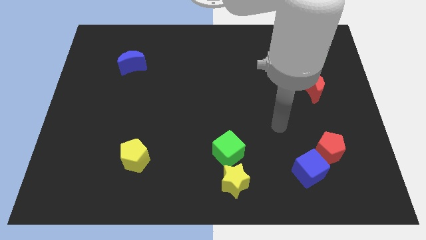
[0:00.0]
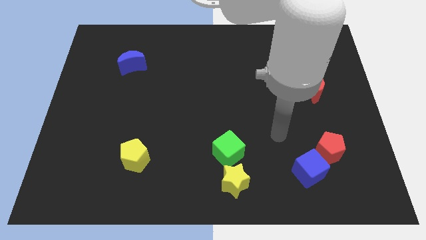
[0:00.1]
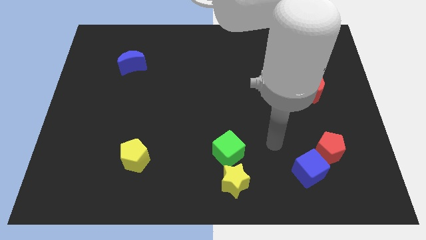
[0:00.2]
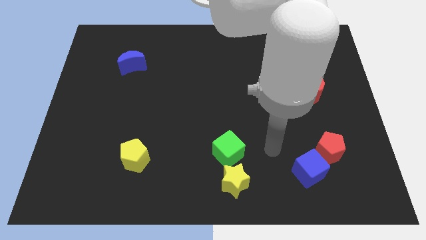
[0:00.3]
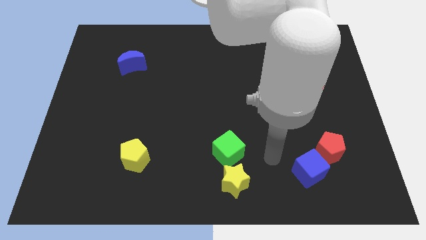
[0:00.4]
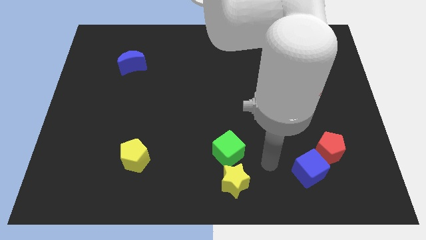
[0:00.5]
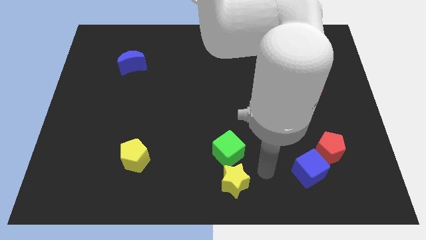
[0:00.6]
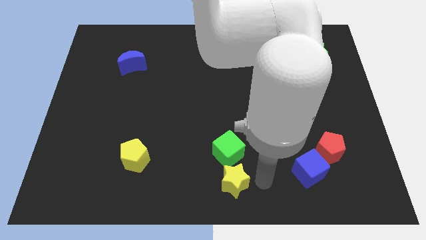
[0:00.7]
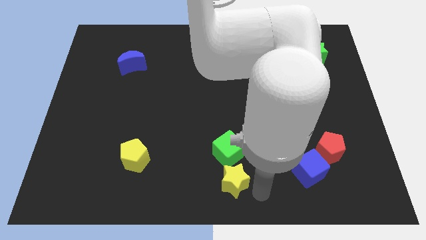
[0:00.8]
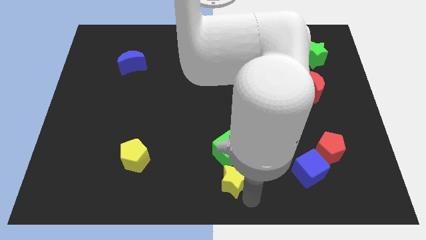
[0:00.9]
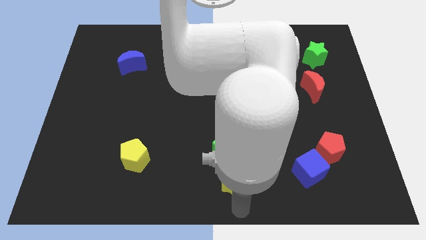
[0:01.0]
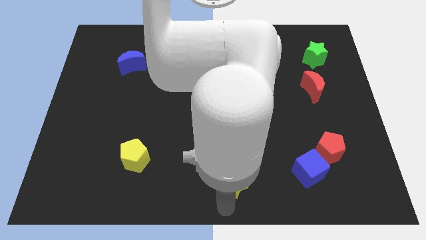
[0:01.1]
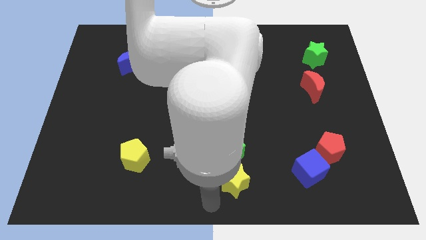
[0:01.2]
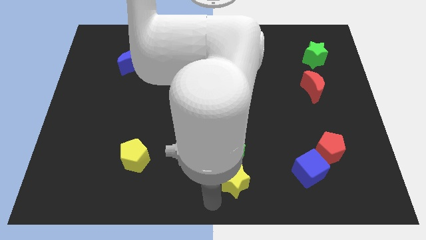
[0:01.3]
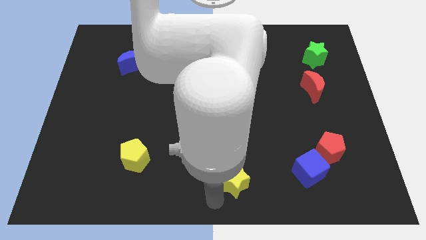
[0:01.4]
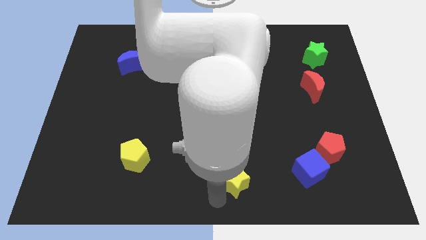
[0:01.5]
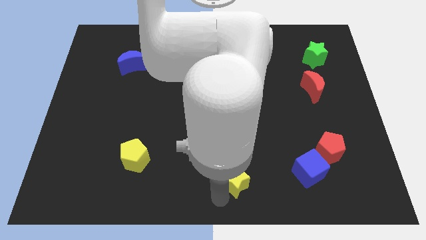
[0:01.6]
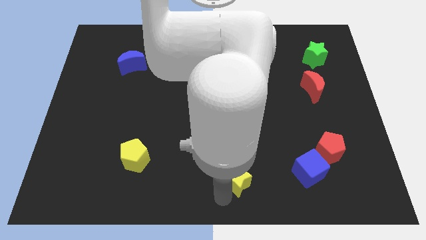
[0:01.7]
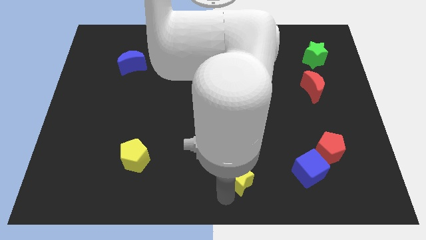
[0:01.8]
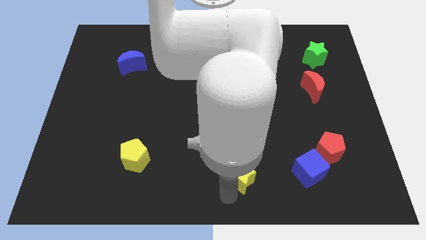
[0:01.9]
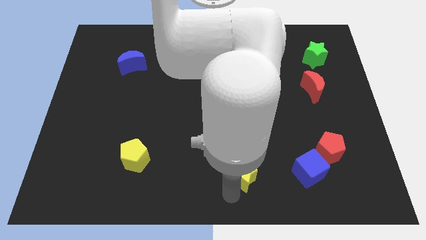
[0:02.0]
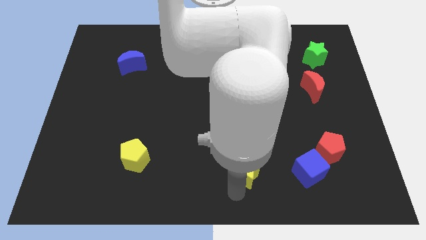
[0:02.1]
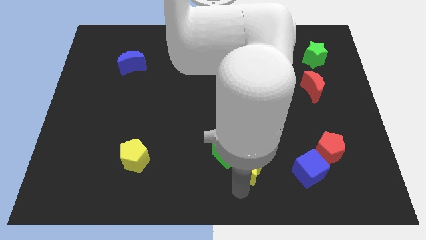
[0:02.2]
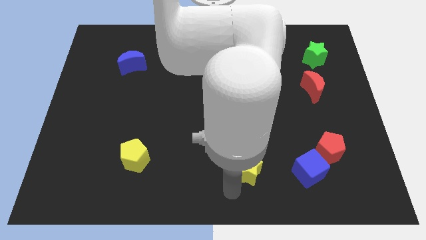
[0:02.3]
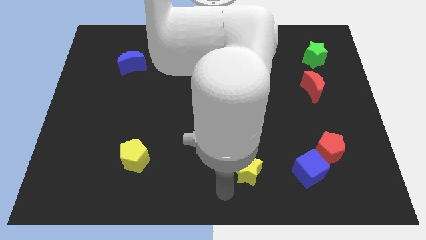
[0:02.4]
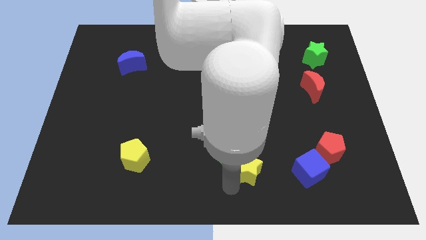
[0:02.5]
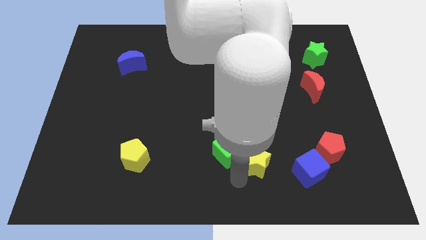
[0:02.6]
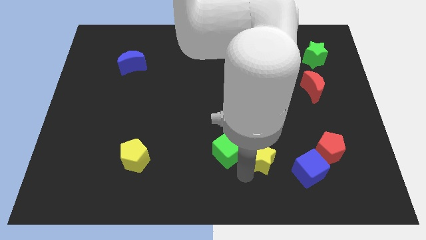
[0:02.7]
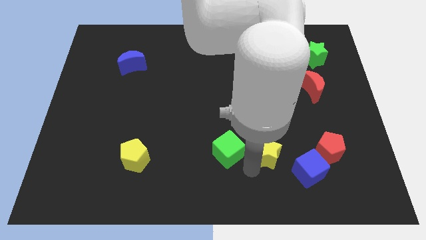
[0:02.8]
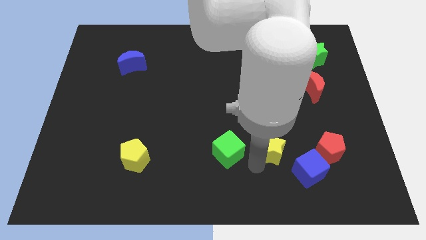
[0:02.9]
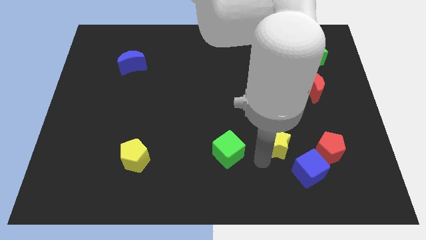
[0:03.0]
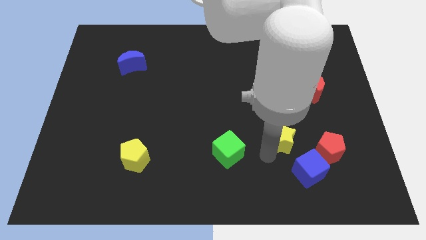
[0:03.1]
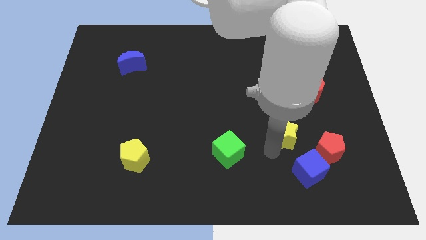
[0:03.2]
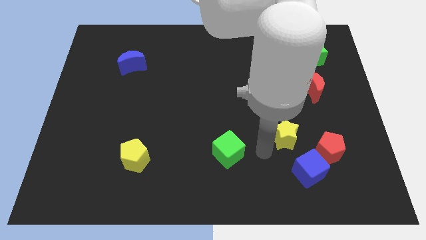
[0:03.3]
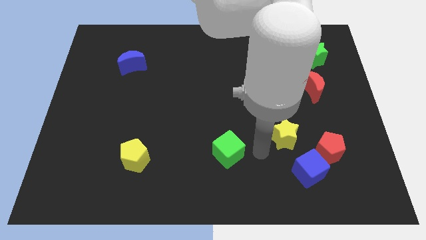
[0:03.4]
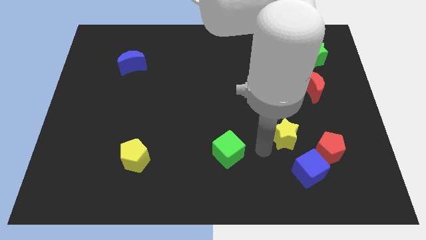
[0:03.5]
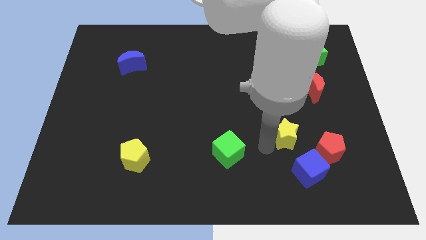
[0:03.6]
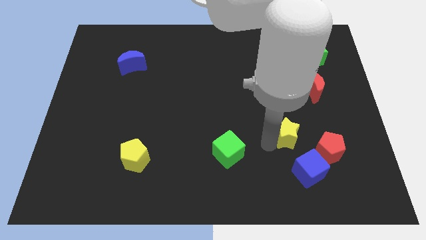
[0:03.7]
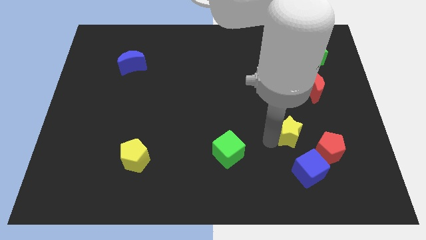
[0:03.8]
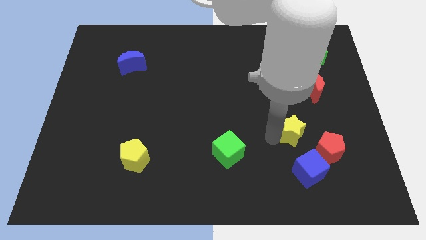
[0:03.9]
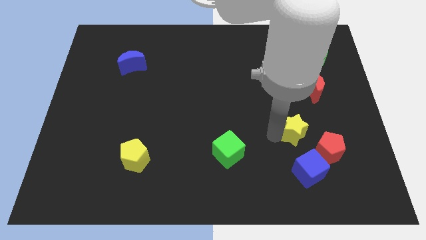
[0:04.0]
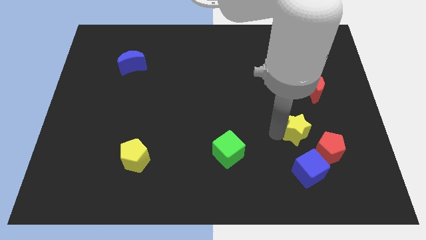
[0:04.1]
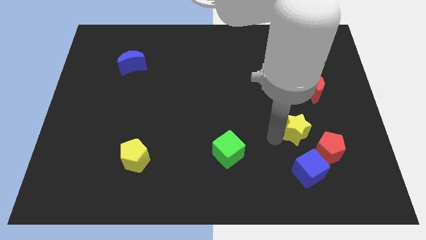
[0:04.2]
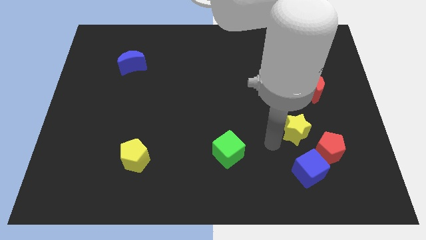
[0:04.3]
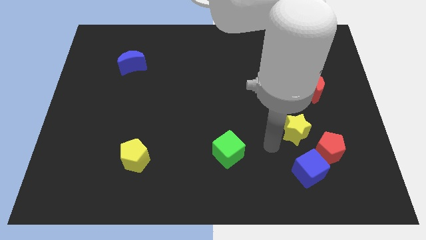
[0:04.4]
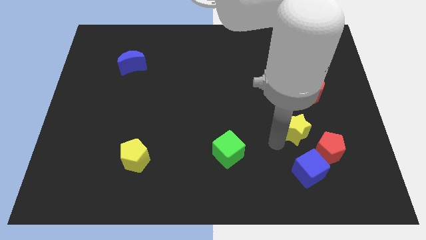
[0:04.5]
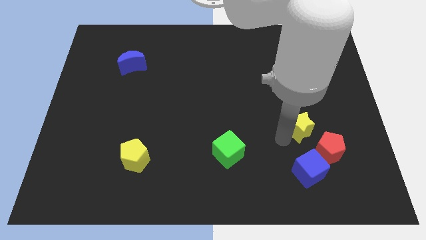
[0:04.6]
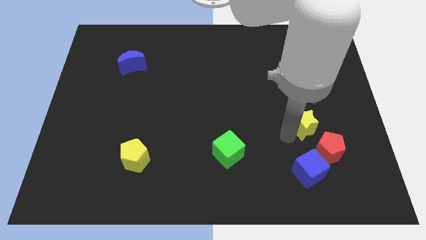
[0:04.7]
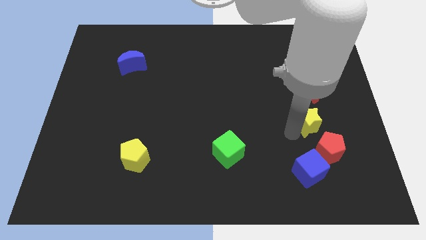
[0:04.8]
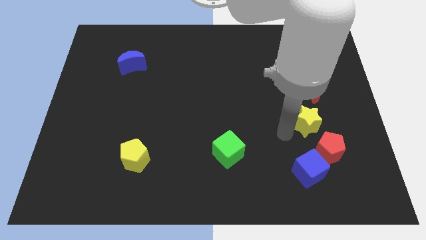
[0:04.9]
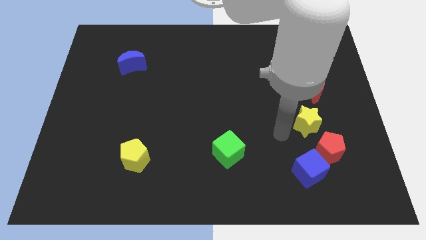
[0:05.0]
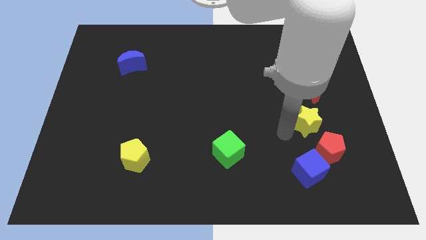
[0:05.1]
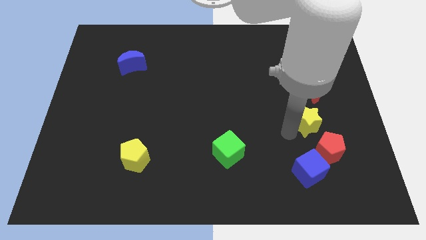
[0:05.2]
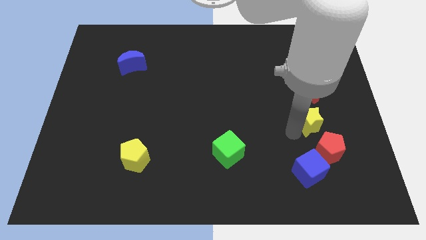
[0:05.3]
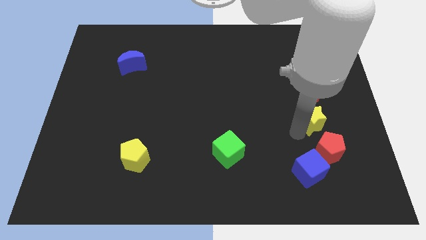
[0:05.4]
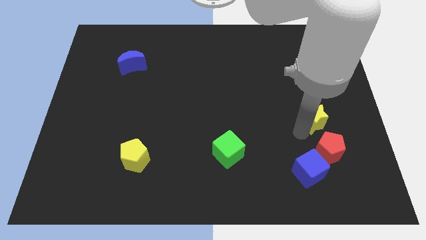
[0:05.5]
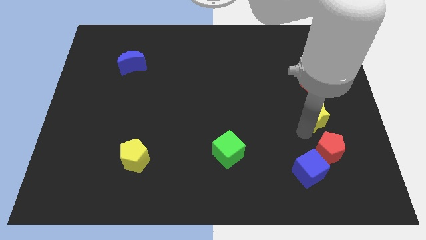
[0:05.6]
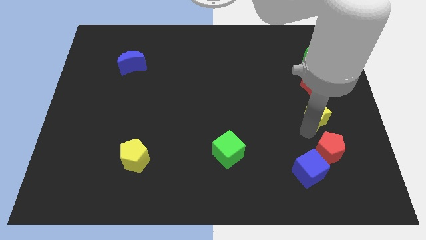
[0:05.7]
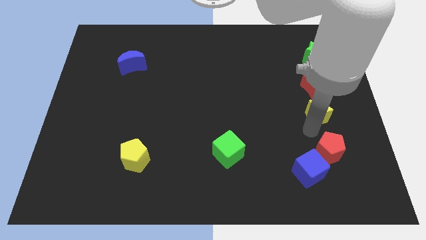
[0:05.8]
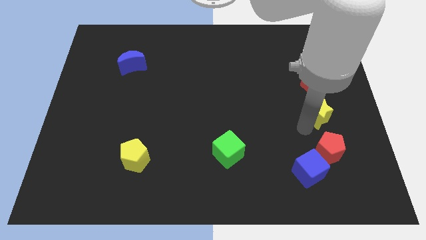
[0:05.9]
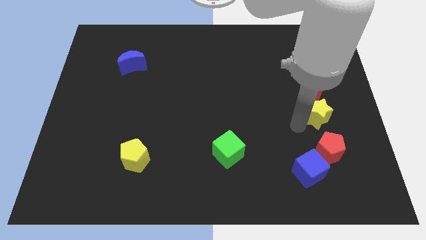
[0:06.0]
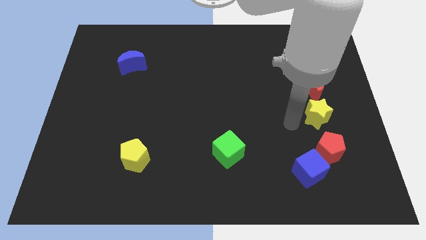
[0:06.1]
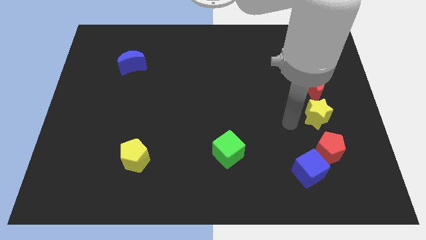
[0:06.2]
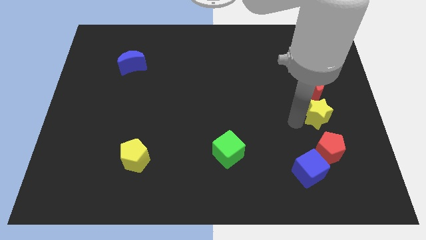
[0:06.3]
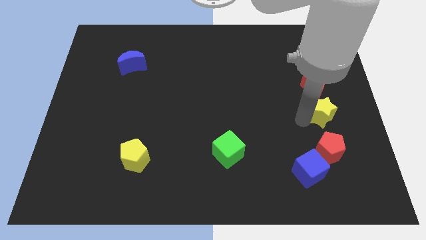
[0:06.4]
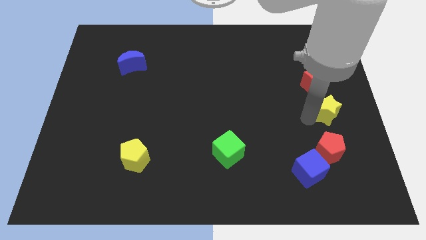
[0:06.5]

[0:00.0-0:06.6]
put the yellow star to the center right

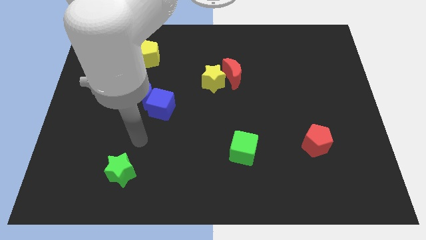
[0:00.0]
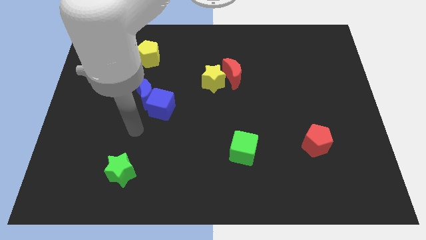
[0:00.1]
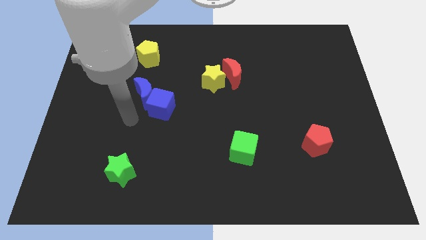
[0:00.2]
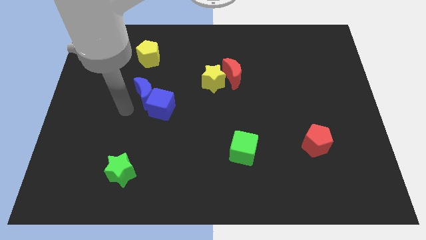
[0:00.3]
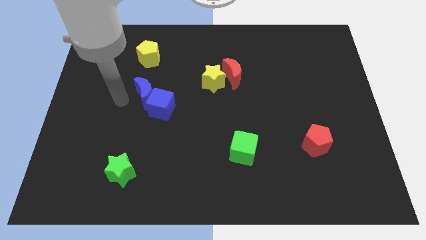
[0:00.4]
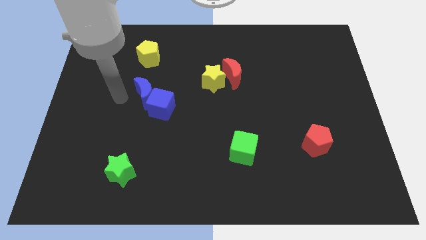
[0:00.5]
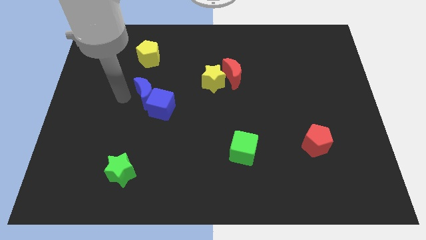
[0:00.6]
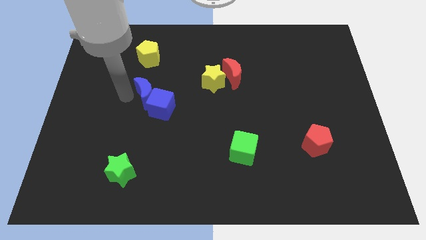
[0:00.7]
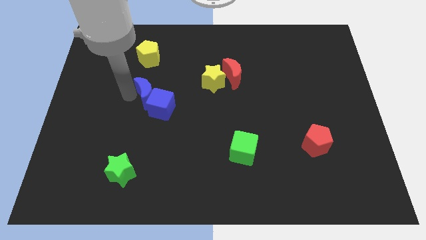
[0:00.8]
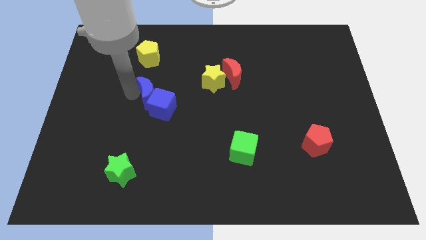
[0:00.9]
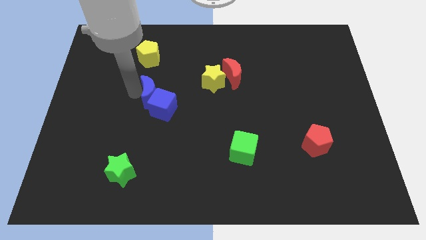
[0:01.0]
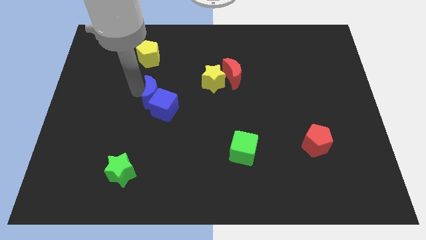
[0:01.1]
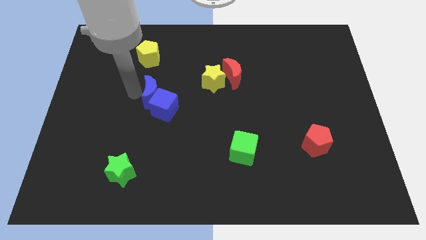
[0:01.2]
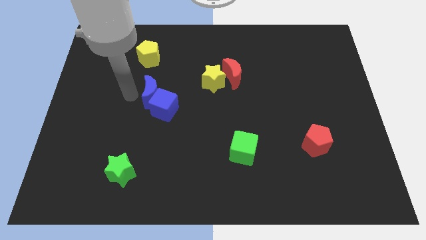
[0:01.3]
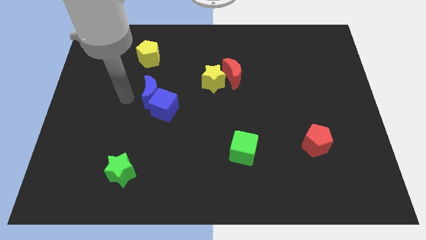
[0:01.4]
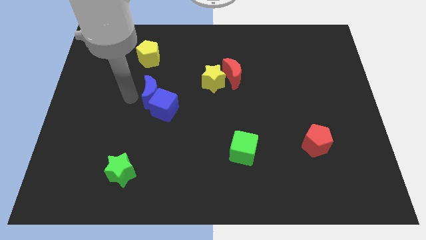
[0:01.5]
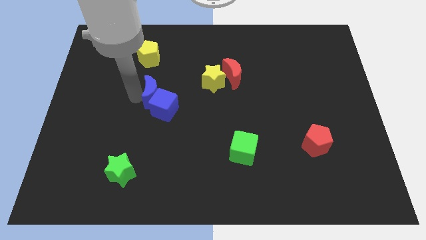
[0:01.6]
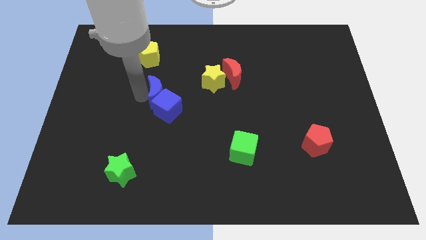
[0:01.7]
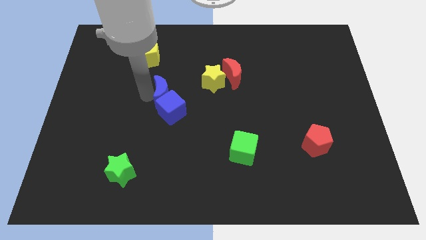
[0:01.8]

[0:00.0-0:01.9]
put the blue moon to the middle of the board
